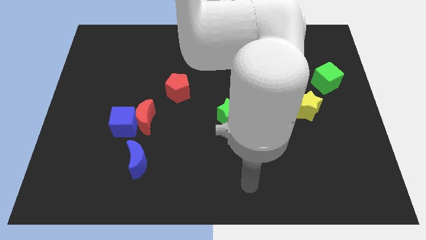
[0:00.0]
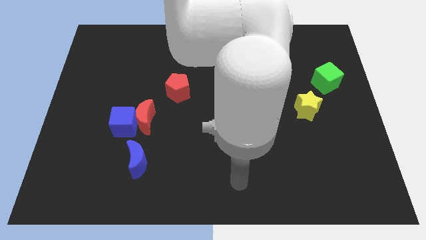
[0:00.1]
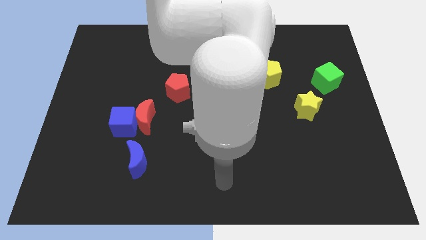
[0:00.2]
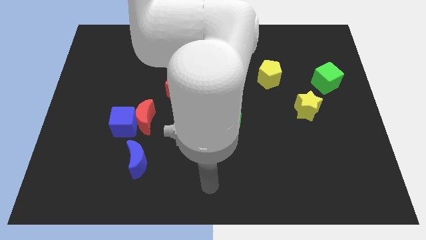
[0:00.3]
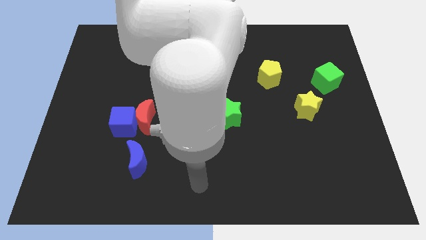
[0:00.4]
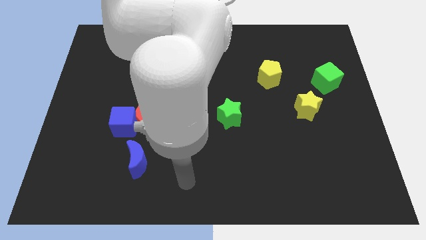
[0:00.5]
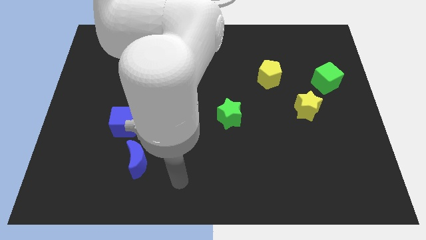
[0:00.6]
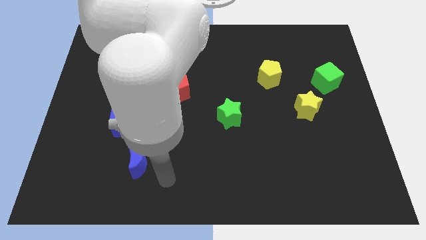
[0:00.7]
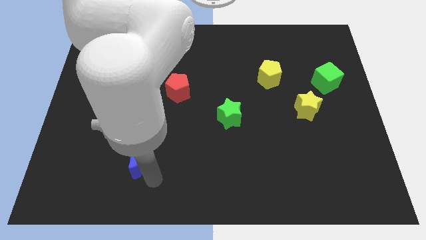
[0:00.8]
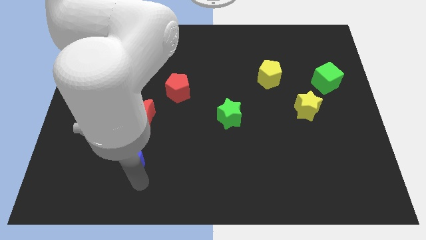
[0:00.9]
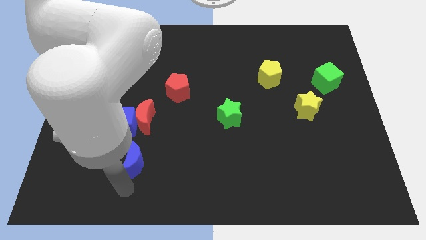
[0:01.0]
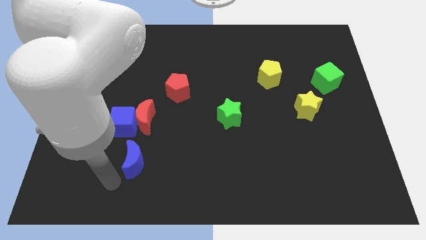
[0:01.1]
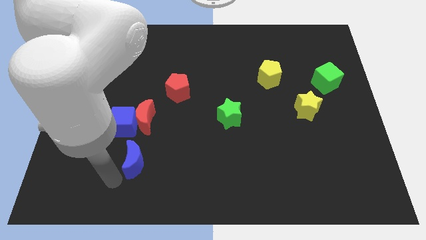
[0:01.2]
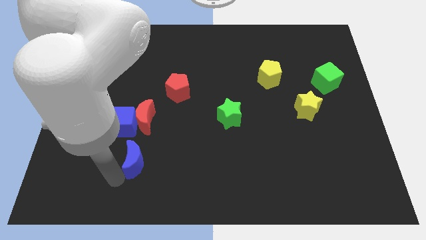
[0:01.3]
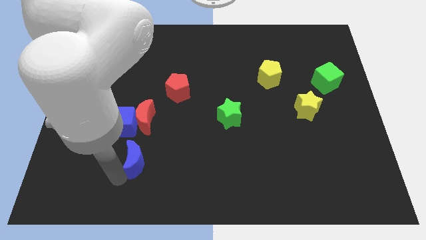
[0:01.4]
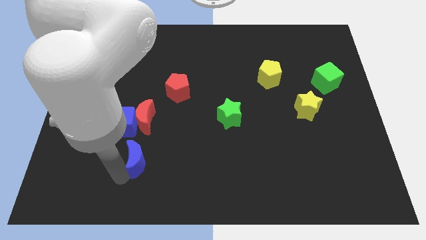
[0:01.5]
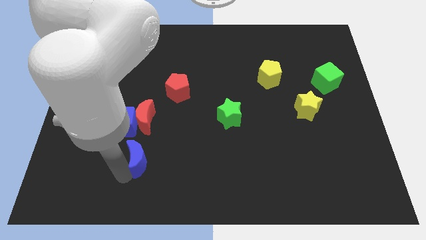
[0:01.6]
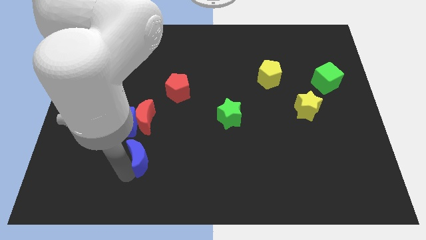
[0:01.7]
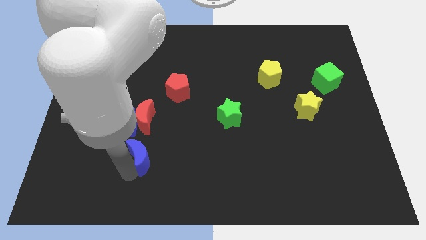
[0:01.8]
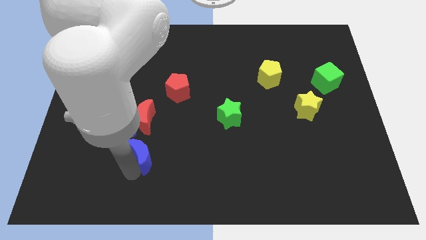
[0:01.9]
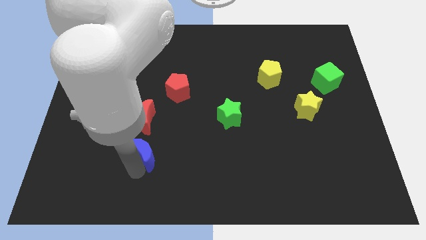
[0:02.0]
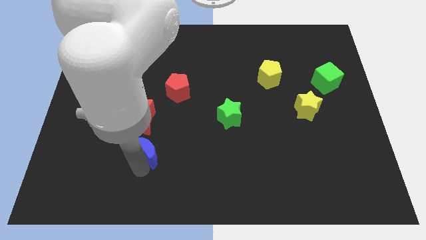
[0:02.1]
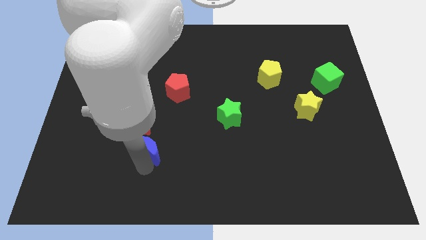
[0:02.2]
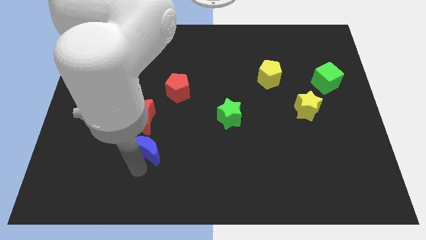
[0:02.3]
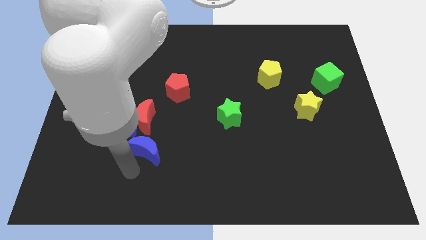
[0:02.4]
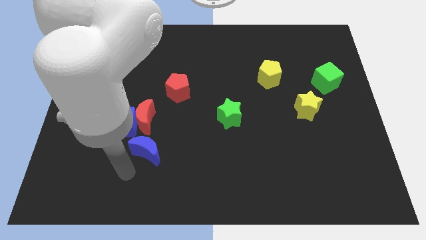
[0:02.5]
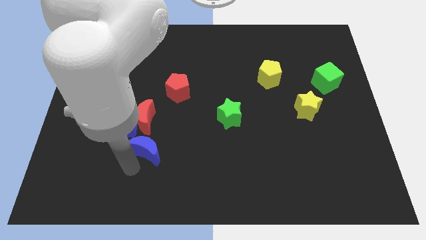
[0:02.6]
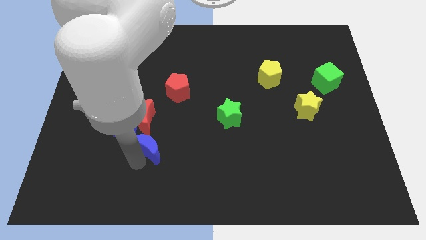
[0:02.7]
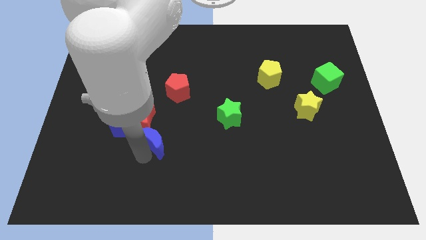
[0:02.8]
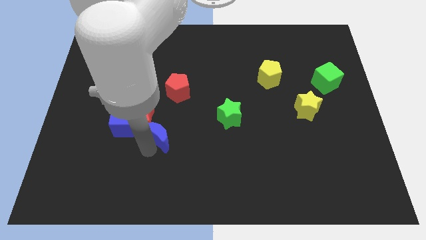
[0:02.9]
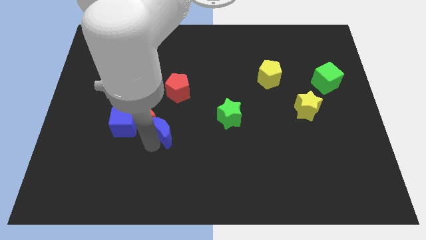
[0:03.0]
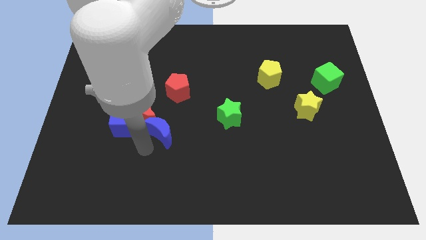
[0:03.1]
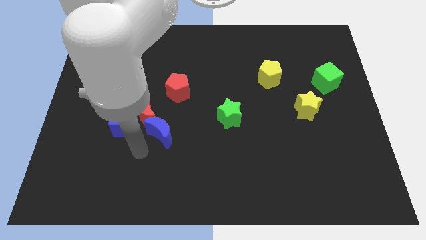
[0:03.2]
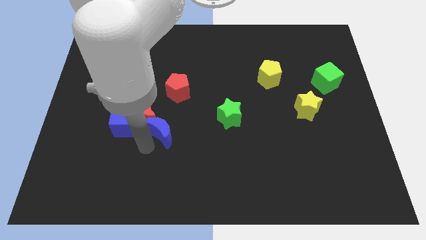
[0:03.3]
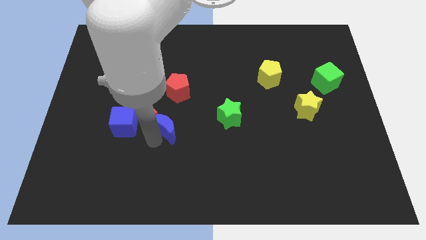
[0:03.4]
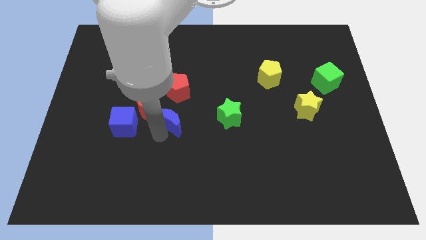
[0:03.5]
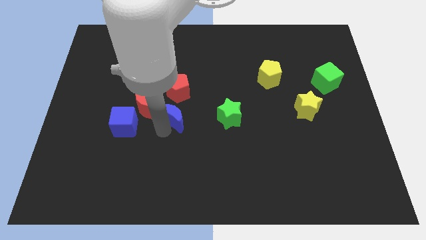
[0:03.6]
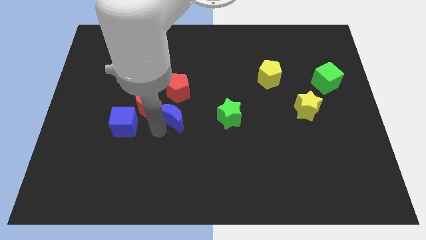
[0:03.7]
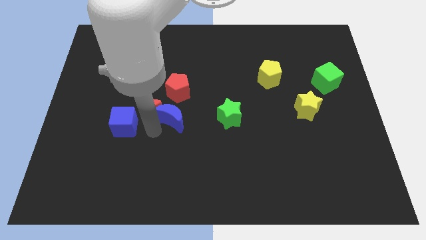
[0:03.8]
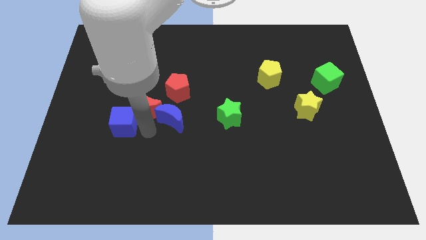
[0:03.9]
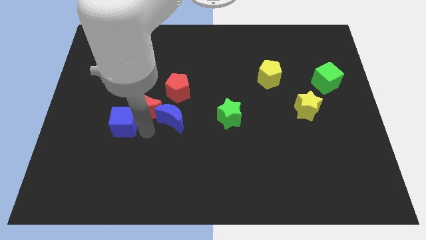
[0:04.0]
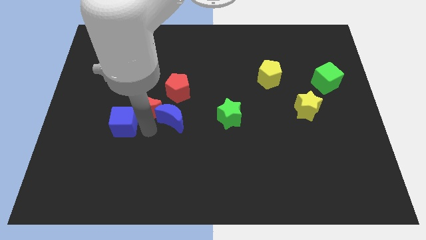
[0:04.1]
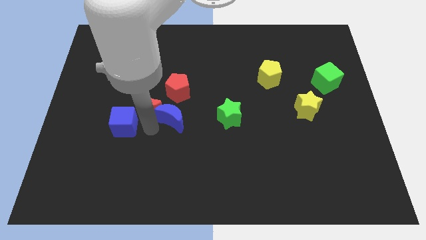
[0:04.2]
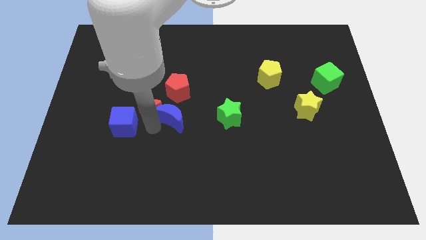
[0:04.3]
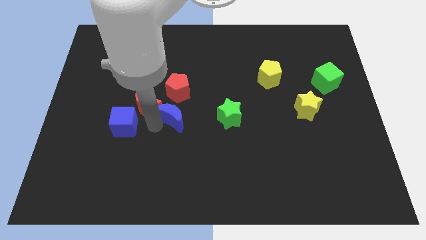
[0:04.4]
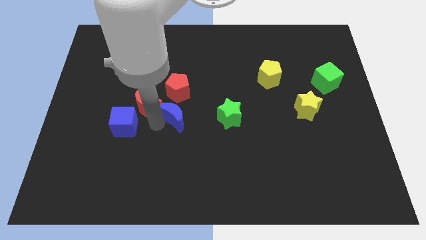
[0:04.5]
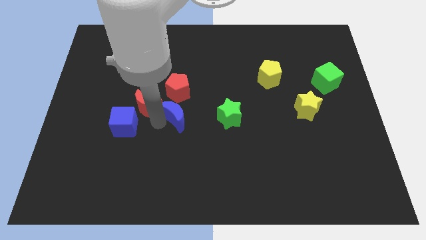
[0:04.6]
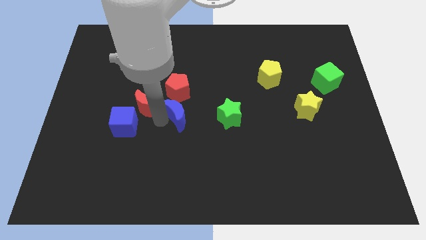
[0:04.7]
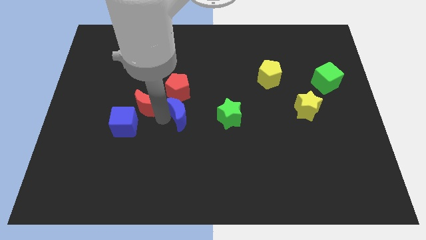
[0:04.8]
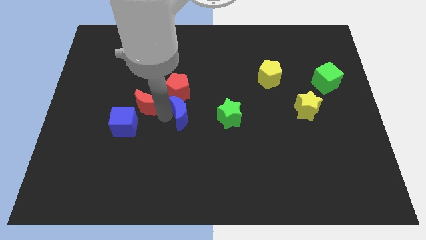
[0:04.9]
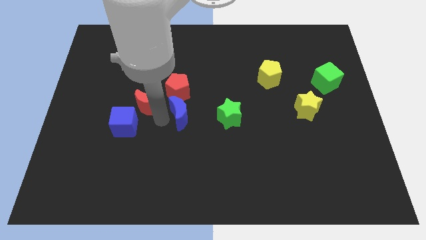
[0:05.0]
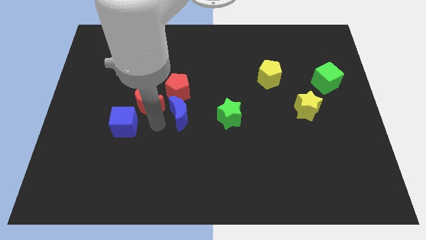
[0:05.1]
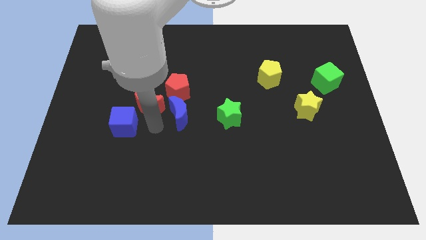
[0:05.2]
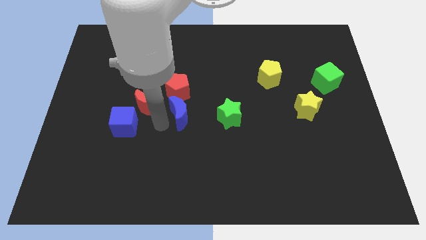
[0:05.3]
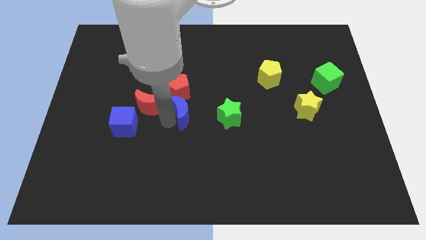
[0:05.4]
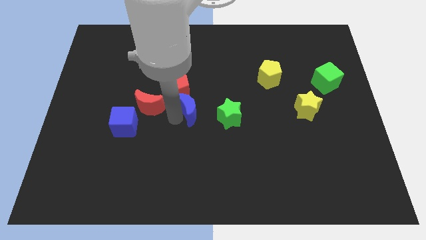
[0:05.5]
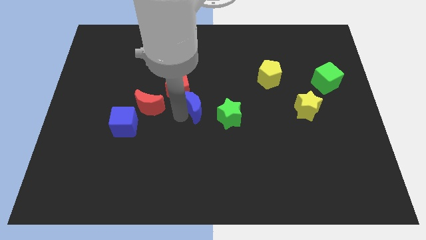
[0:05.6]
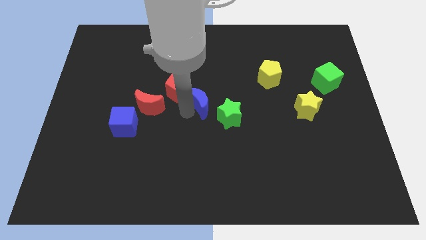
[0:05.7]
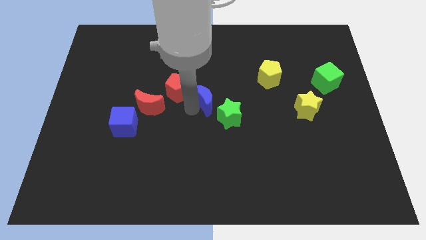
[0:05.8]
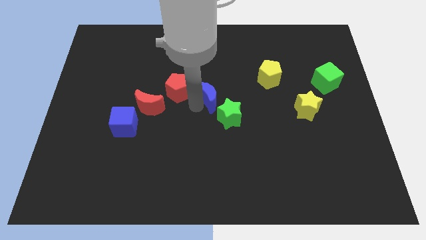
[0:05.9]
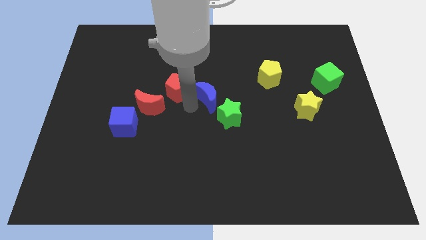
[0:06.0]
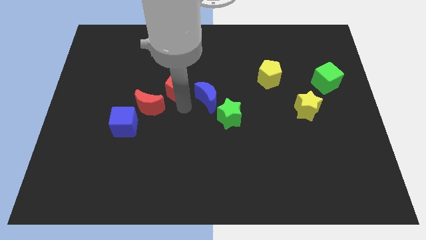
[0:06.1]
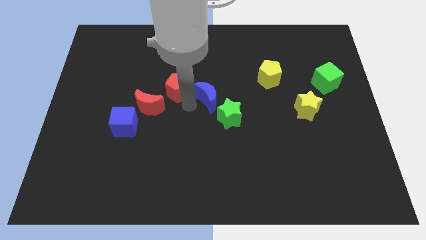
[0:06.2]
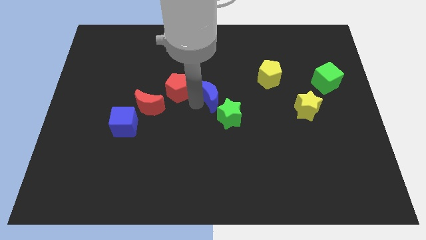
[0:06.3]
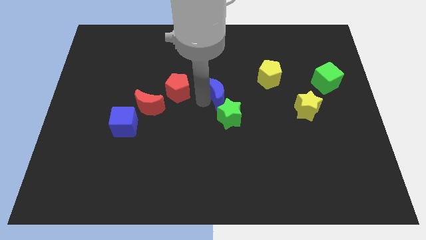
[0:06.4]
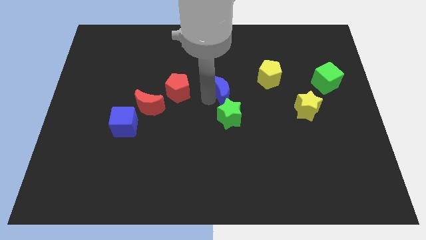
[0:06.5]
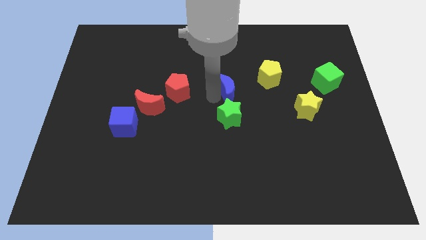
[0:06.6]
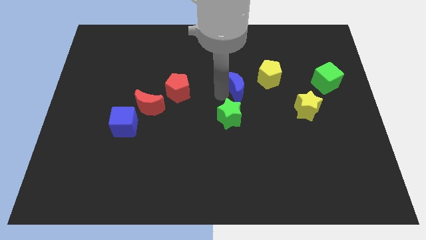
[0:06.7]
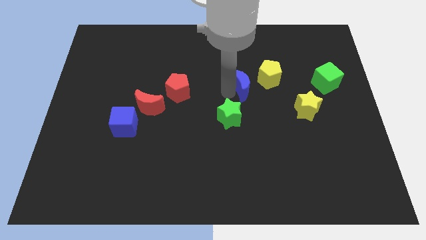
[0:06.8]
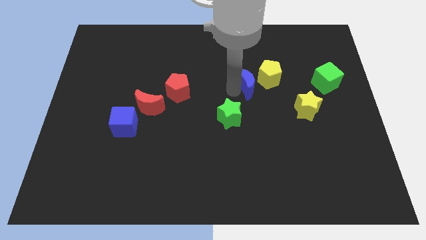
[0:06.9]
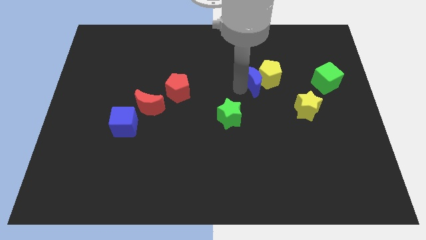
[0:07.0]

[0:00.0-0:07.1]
slide the blue moon to the yellow pentagon
